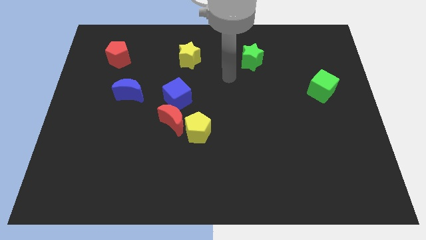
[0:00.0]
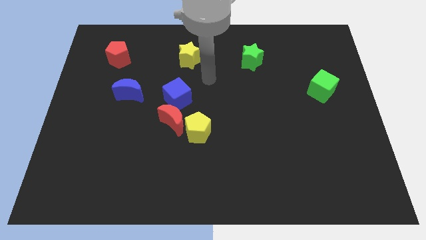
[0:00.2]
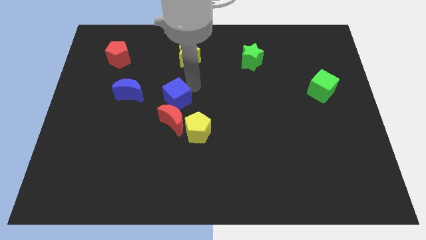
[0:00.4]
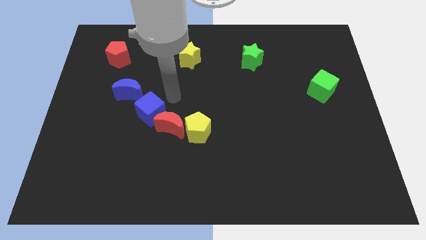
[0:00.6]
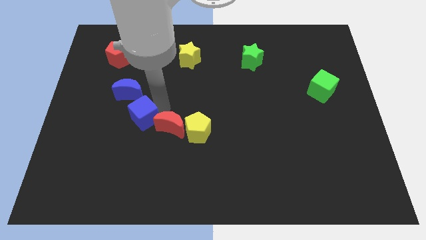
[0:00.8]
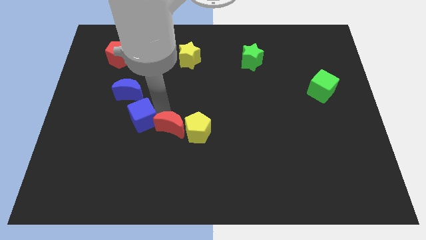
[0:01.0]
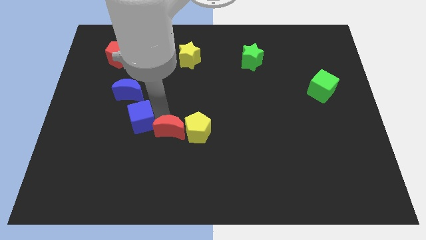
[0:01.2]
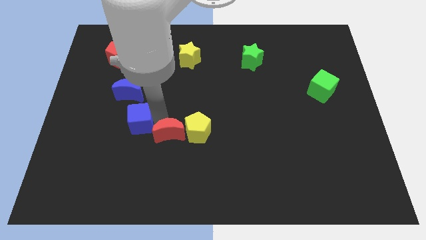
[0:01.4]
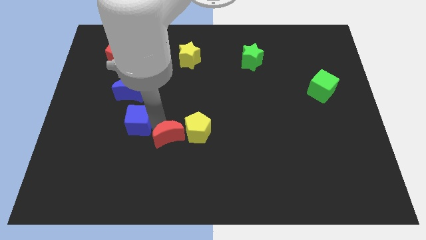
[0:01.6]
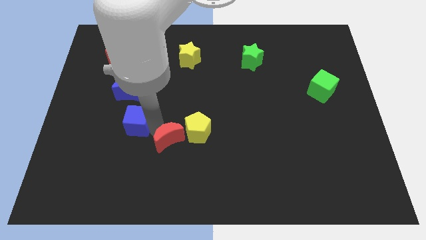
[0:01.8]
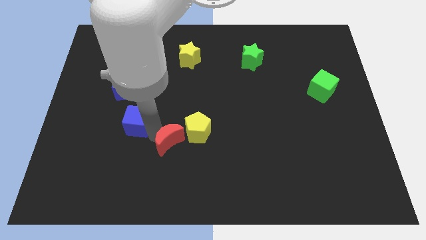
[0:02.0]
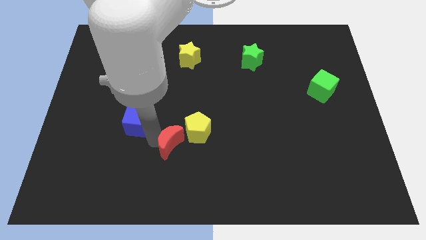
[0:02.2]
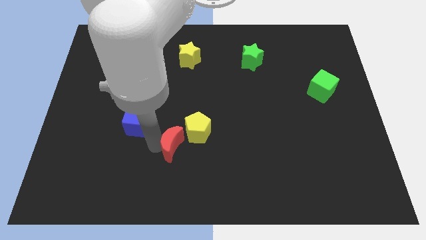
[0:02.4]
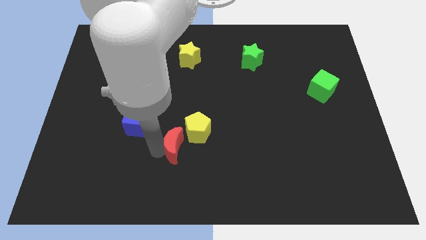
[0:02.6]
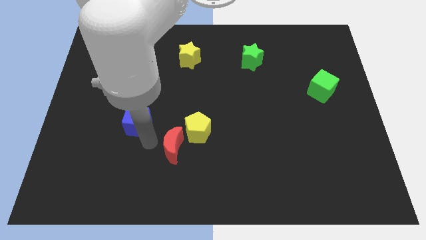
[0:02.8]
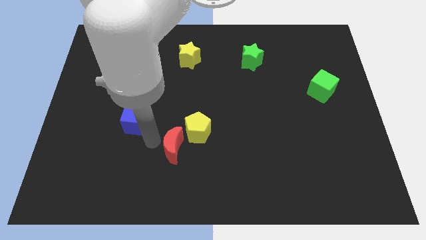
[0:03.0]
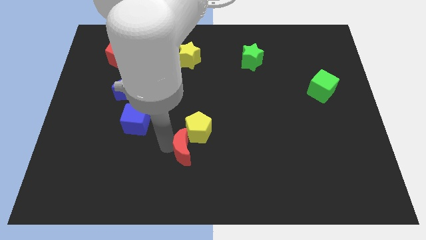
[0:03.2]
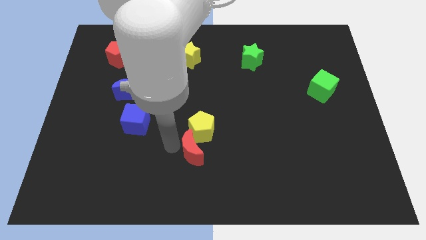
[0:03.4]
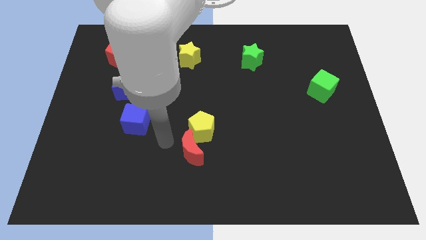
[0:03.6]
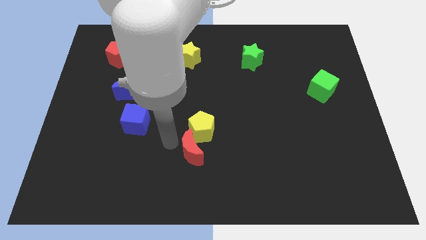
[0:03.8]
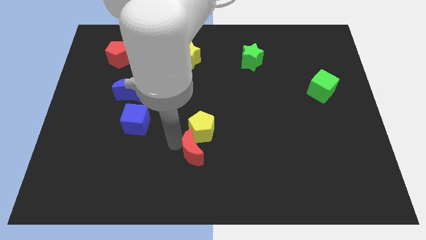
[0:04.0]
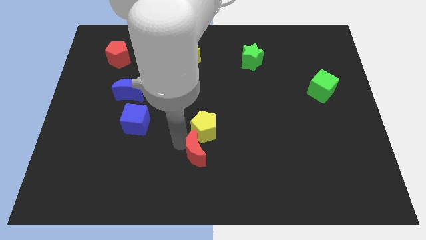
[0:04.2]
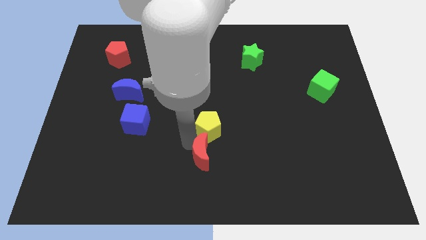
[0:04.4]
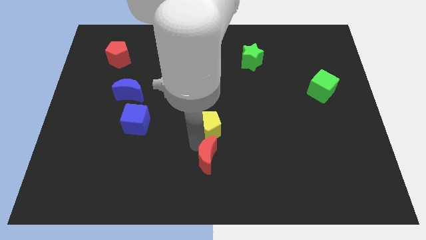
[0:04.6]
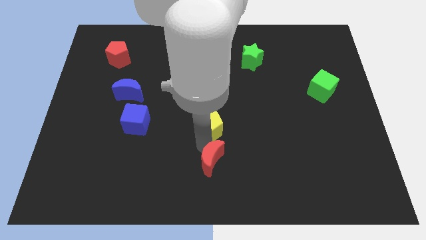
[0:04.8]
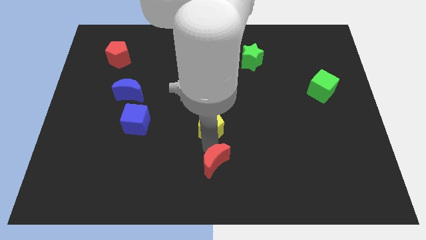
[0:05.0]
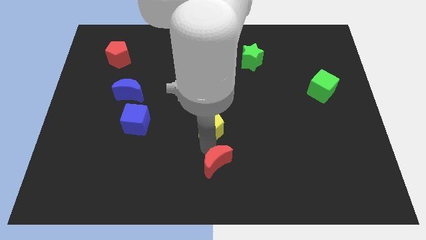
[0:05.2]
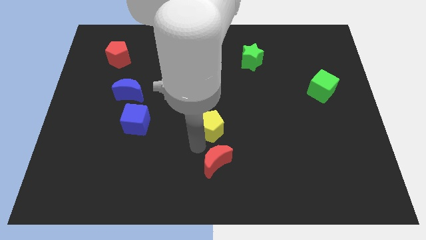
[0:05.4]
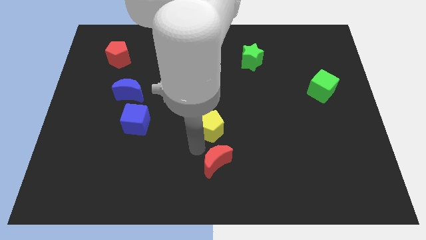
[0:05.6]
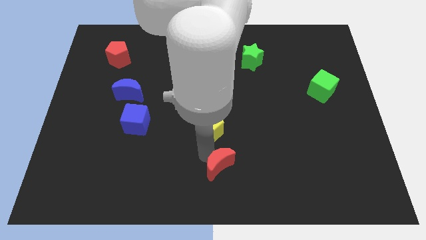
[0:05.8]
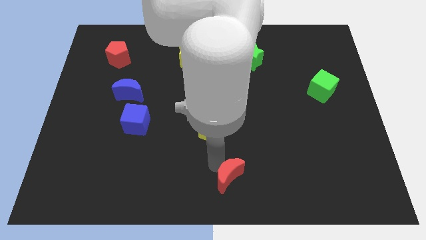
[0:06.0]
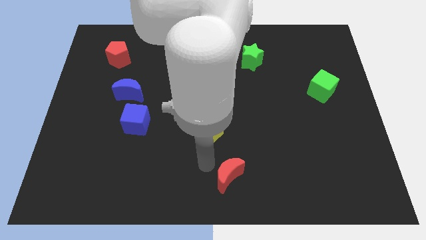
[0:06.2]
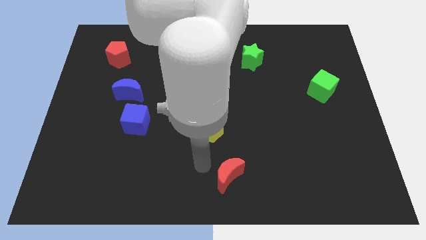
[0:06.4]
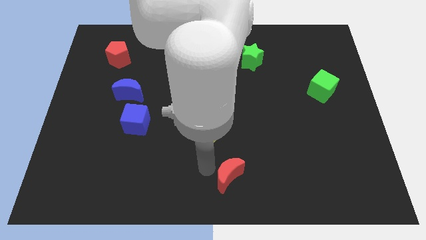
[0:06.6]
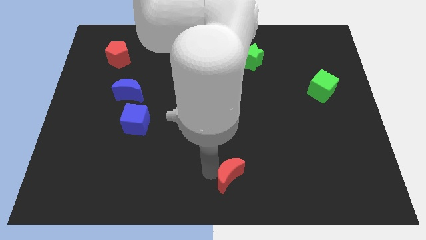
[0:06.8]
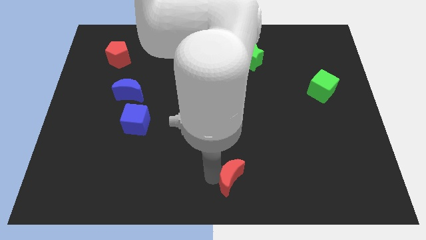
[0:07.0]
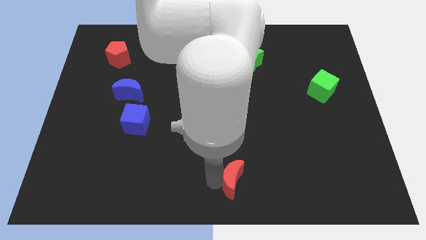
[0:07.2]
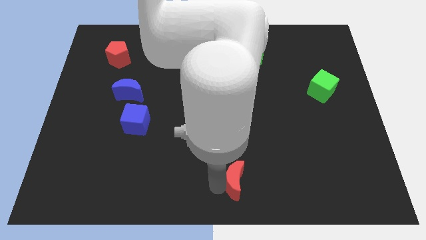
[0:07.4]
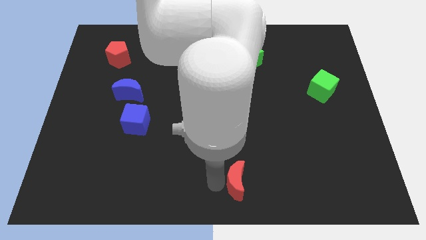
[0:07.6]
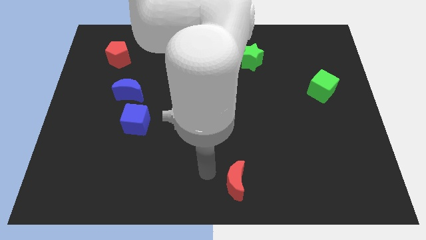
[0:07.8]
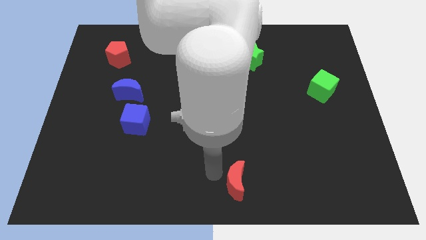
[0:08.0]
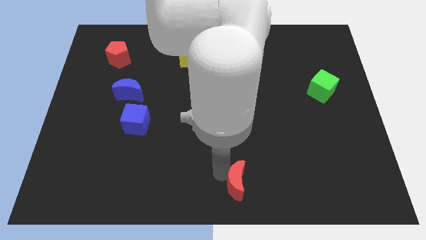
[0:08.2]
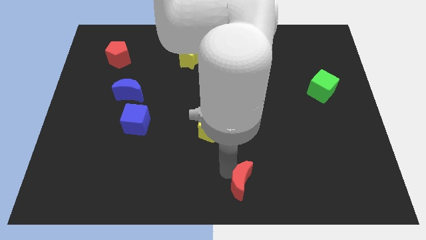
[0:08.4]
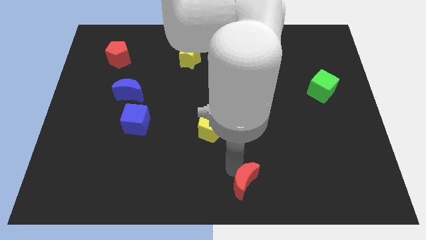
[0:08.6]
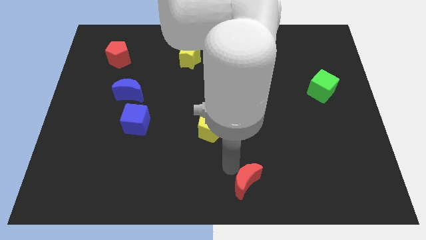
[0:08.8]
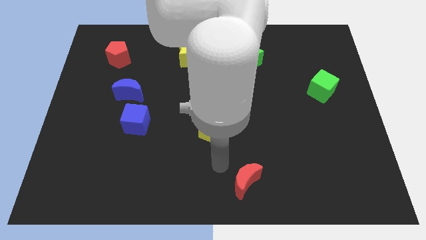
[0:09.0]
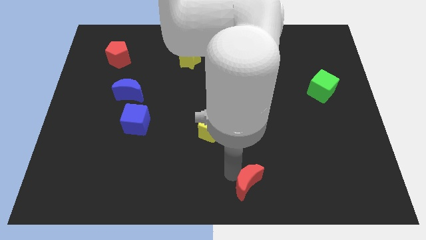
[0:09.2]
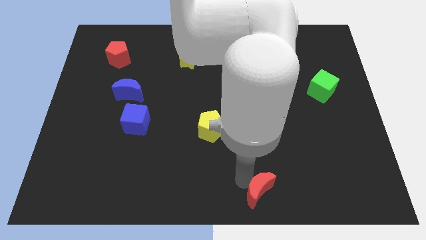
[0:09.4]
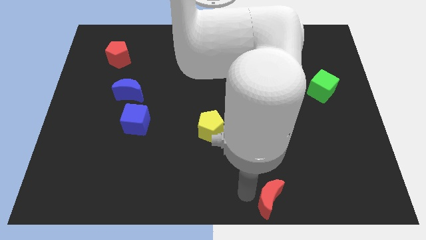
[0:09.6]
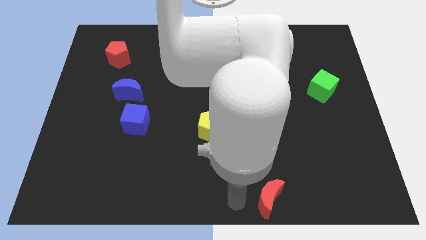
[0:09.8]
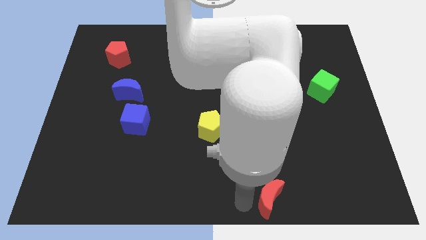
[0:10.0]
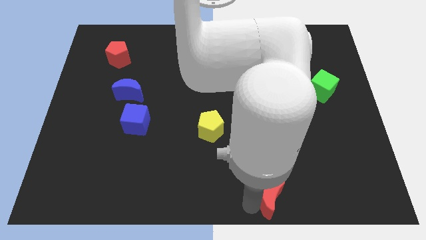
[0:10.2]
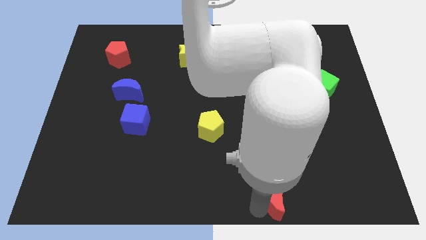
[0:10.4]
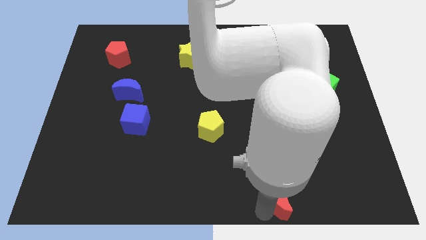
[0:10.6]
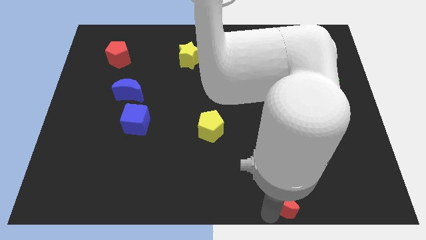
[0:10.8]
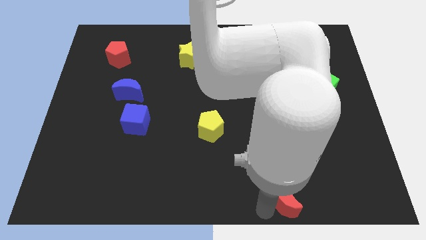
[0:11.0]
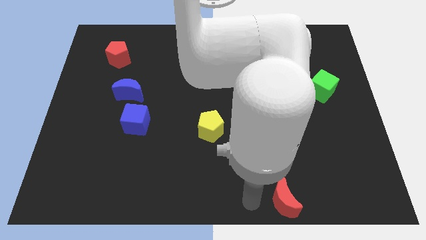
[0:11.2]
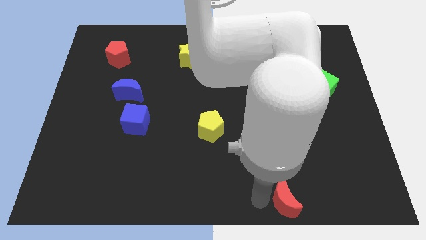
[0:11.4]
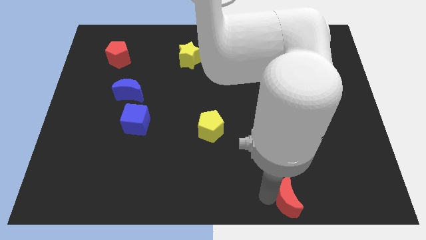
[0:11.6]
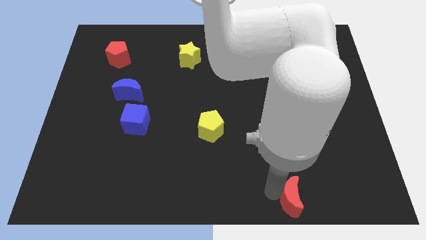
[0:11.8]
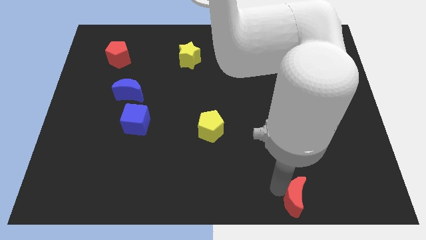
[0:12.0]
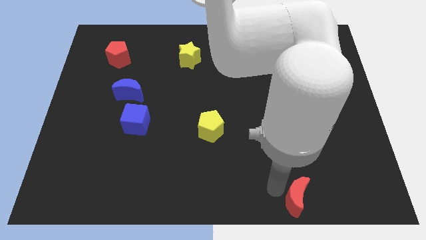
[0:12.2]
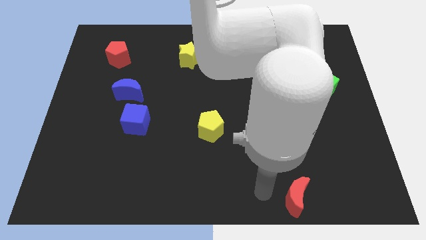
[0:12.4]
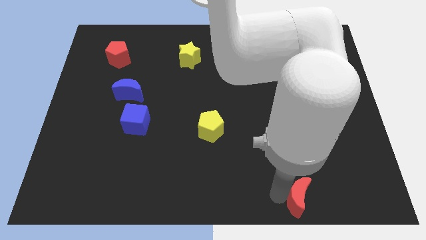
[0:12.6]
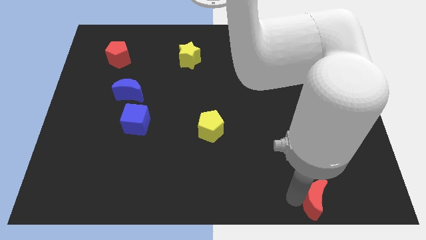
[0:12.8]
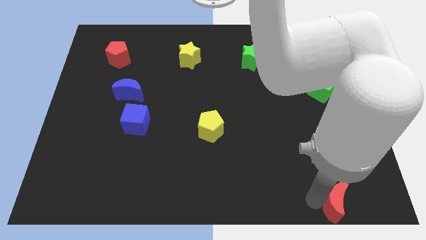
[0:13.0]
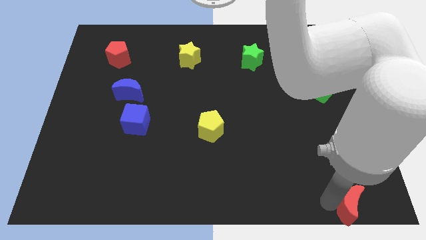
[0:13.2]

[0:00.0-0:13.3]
slide the red moon to the lower right corner
